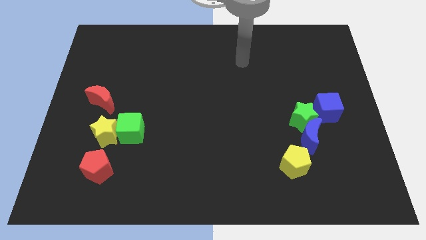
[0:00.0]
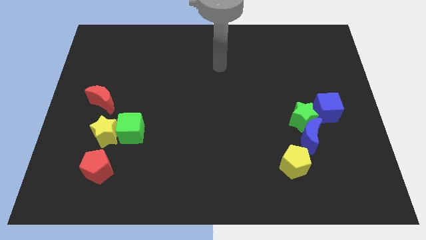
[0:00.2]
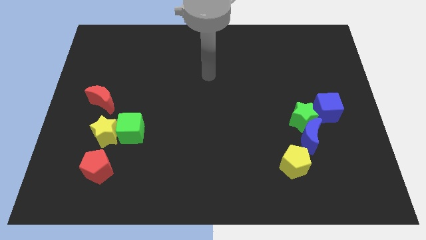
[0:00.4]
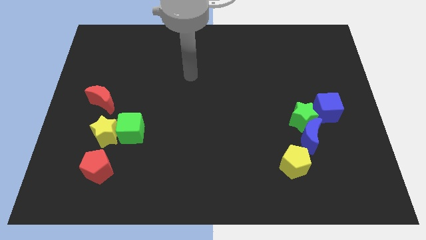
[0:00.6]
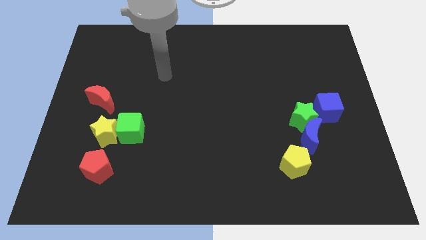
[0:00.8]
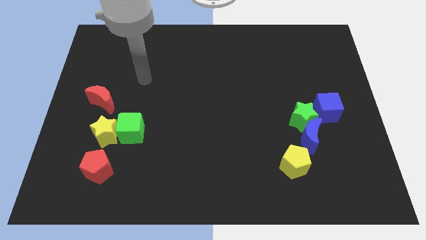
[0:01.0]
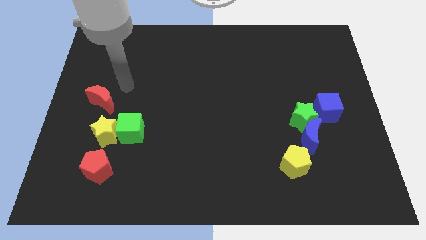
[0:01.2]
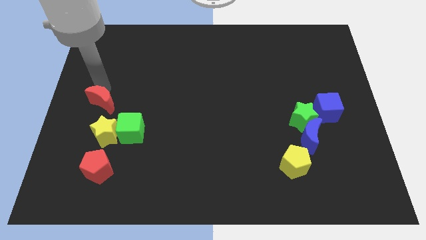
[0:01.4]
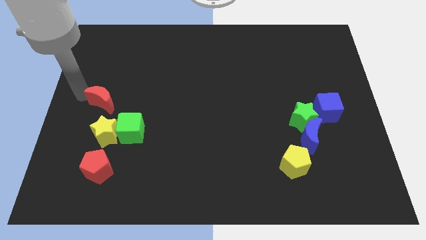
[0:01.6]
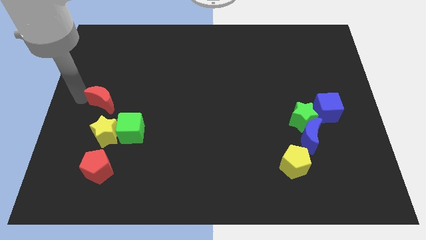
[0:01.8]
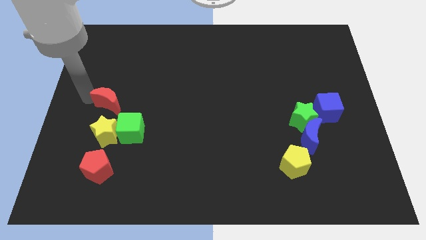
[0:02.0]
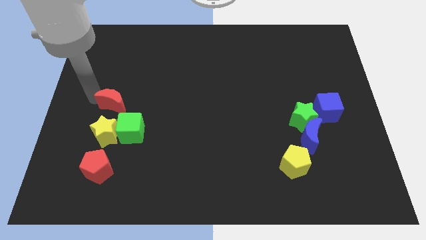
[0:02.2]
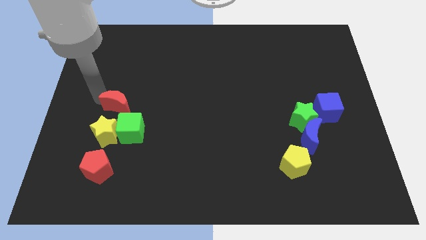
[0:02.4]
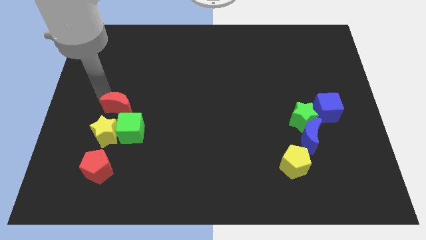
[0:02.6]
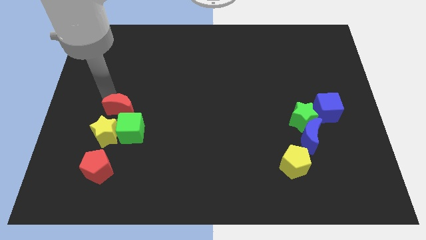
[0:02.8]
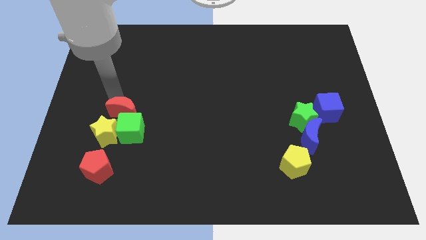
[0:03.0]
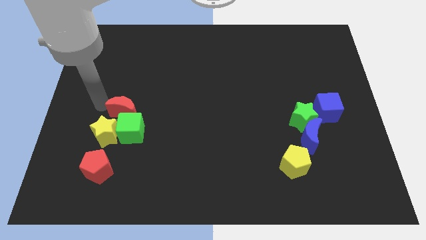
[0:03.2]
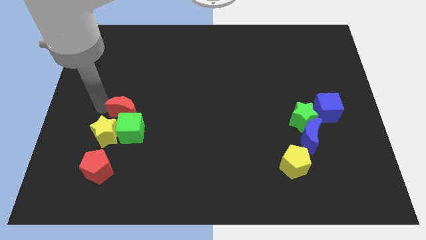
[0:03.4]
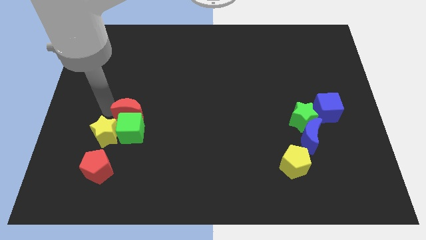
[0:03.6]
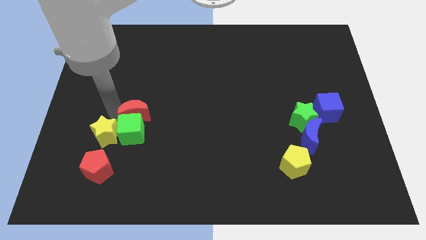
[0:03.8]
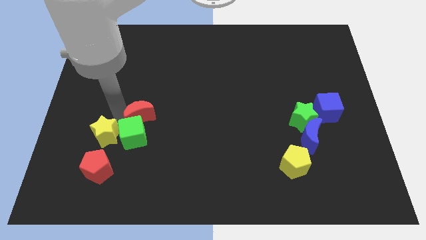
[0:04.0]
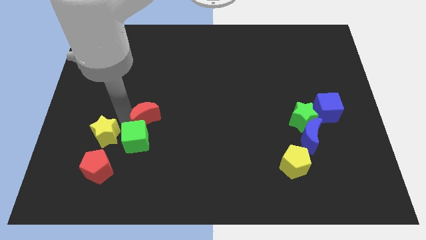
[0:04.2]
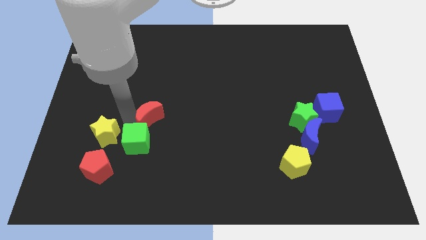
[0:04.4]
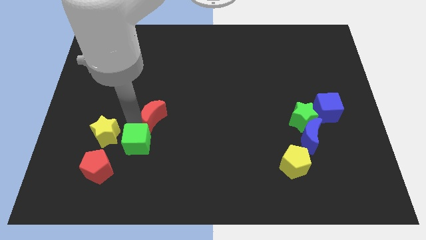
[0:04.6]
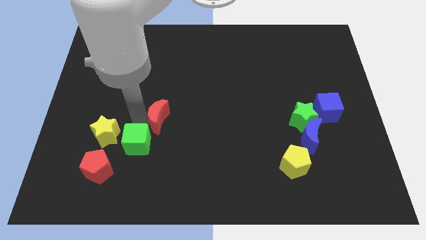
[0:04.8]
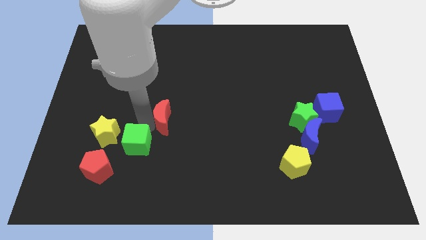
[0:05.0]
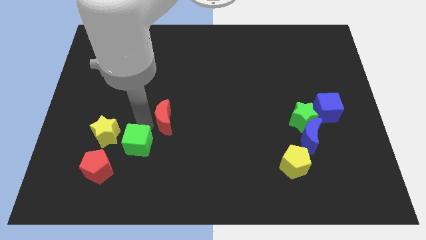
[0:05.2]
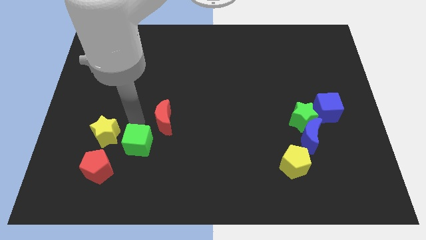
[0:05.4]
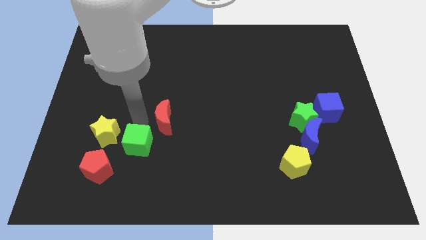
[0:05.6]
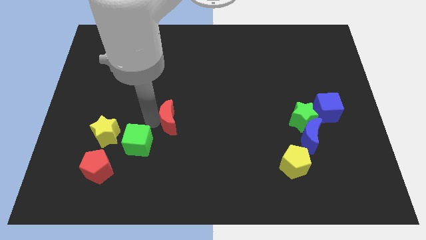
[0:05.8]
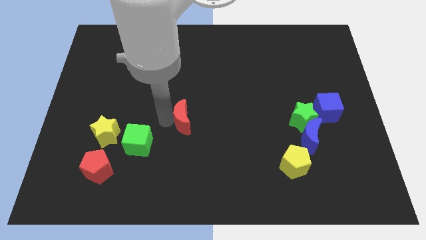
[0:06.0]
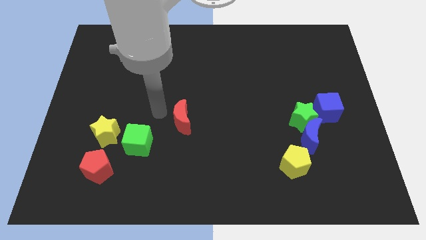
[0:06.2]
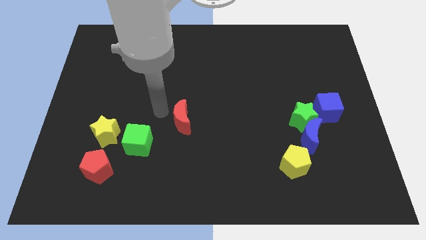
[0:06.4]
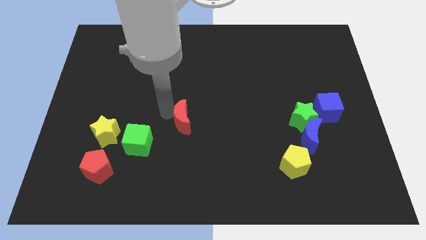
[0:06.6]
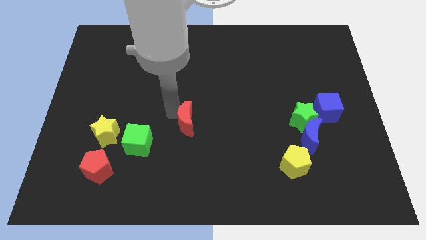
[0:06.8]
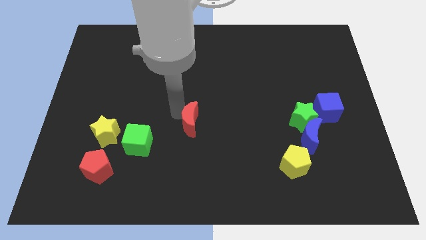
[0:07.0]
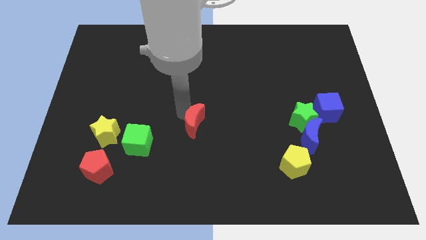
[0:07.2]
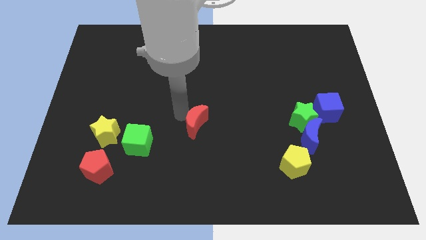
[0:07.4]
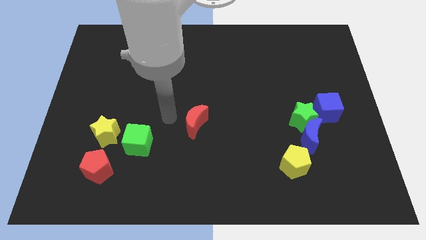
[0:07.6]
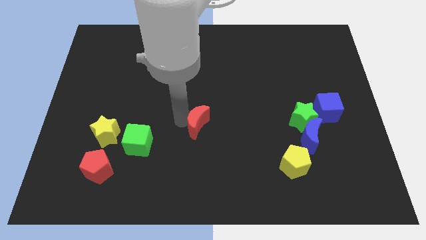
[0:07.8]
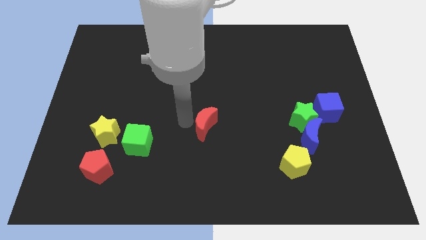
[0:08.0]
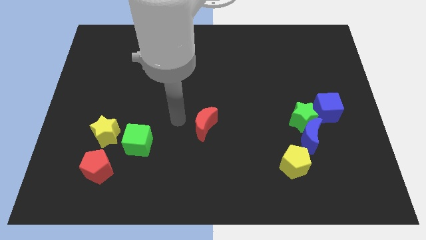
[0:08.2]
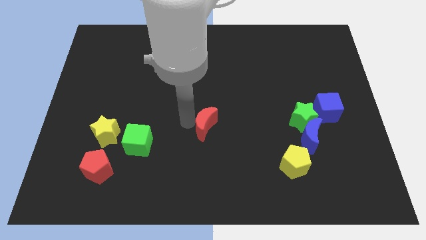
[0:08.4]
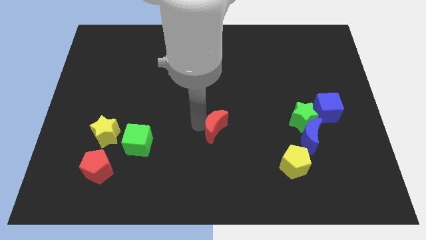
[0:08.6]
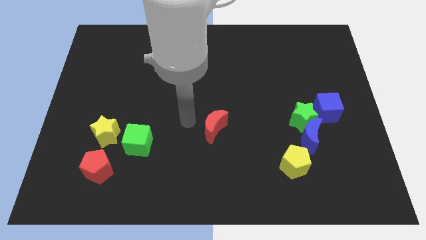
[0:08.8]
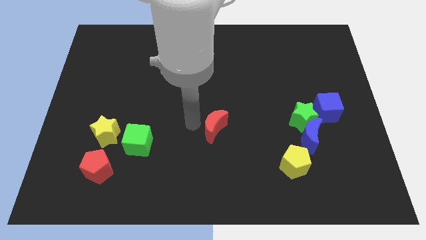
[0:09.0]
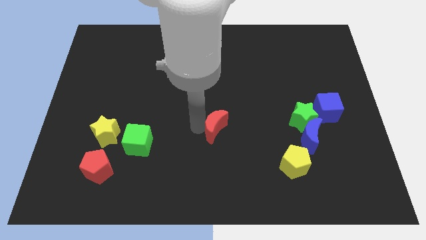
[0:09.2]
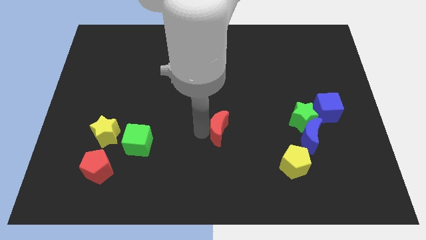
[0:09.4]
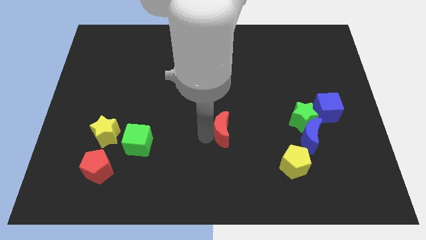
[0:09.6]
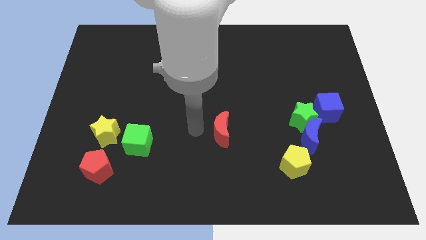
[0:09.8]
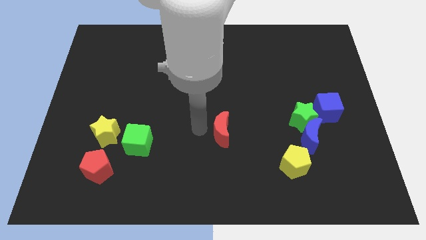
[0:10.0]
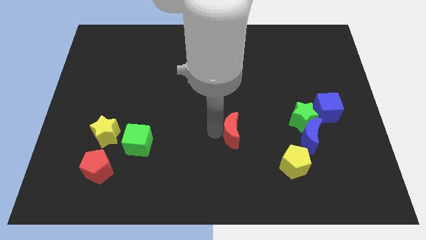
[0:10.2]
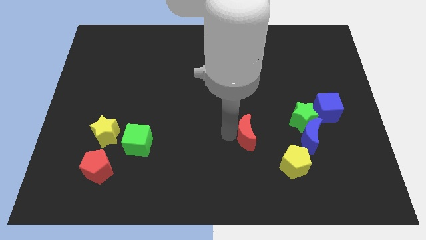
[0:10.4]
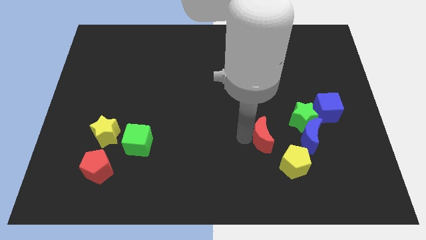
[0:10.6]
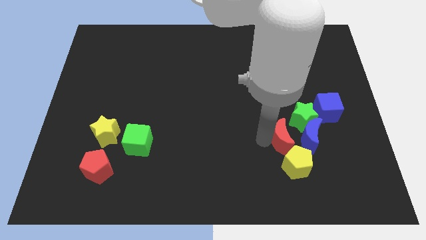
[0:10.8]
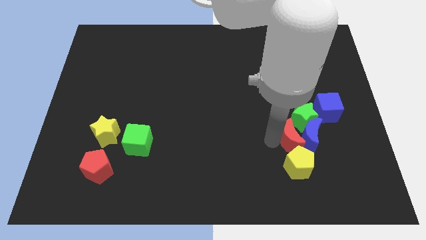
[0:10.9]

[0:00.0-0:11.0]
push the red moon next to the blue moon

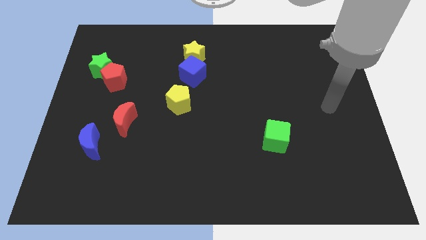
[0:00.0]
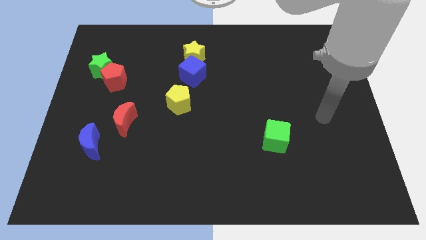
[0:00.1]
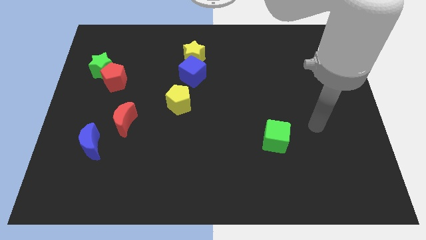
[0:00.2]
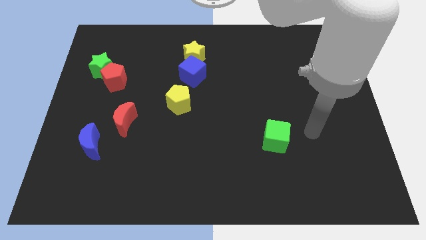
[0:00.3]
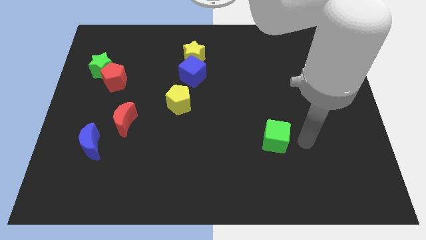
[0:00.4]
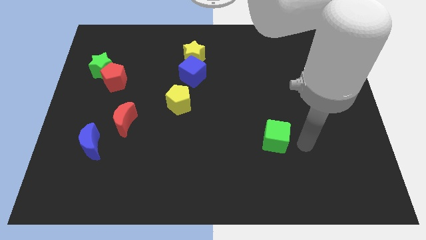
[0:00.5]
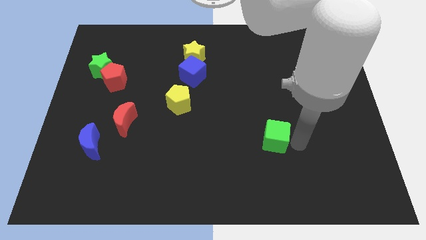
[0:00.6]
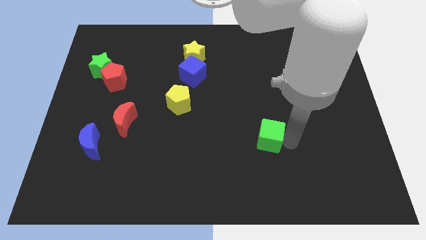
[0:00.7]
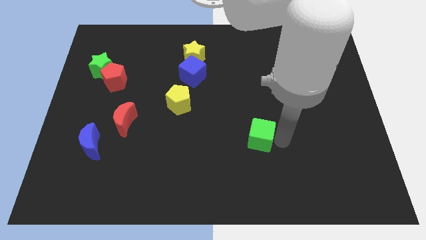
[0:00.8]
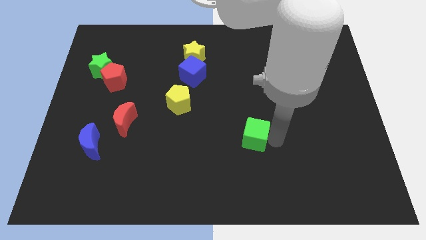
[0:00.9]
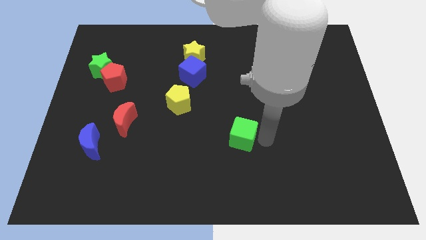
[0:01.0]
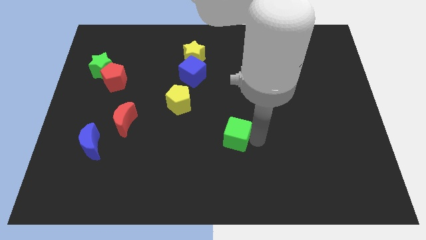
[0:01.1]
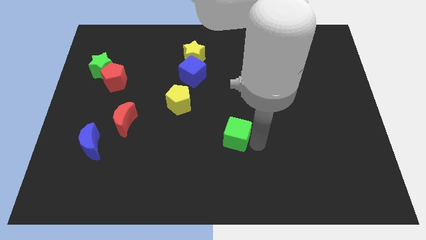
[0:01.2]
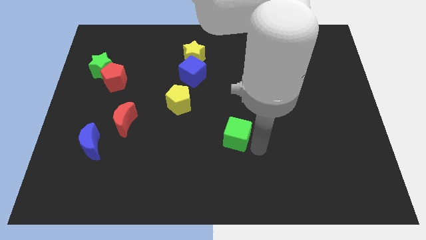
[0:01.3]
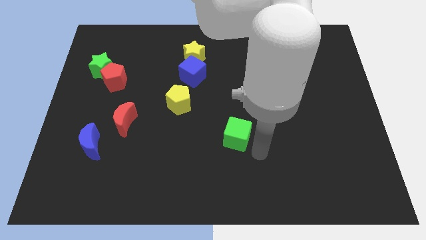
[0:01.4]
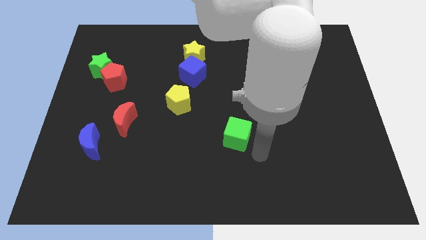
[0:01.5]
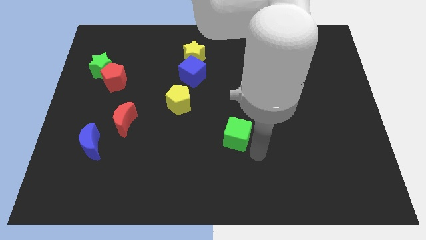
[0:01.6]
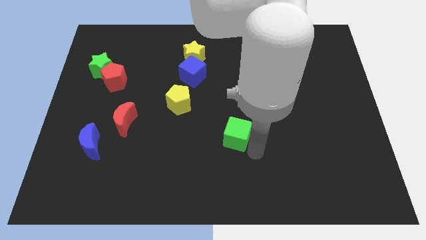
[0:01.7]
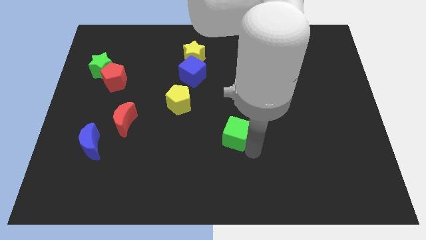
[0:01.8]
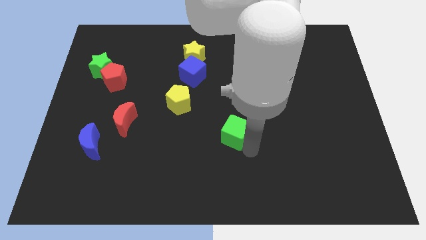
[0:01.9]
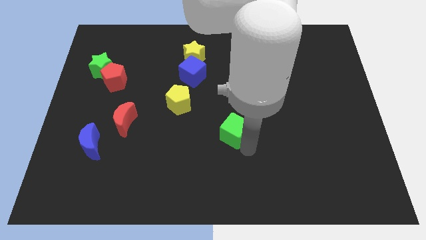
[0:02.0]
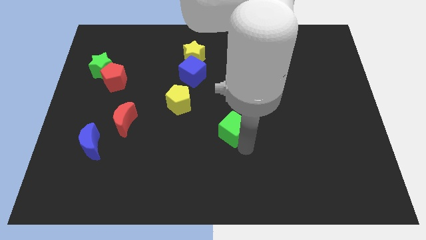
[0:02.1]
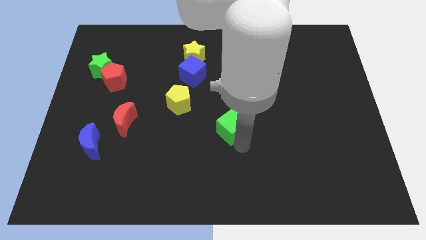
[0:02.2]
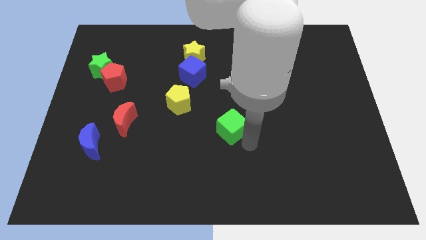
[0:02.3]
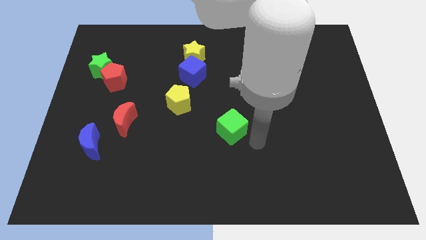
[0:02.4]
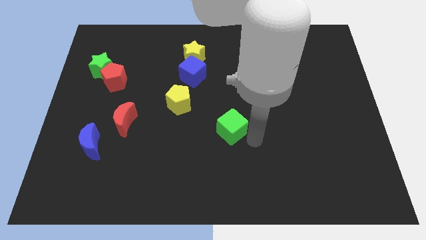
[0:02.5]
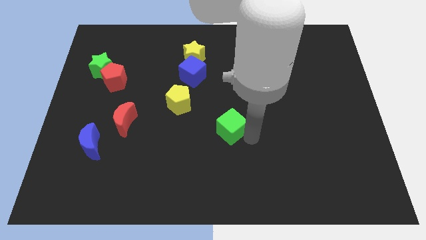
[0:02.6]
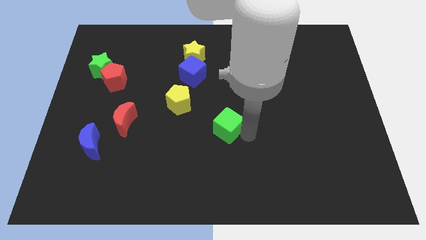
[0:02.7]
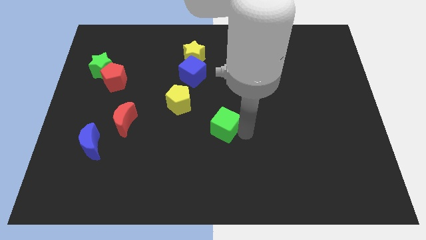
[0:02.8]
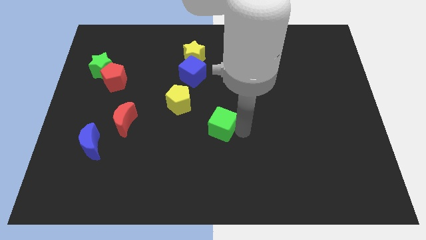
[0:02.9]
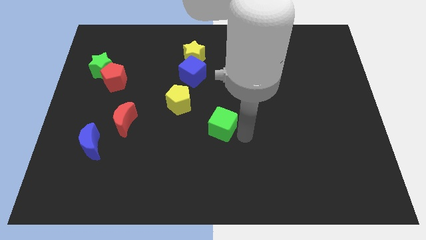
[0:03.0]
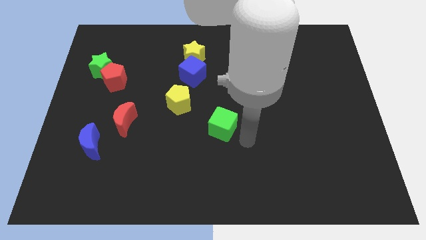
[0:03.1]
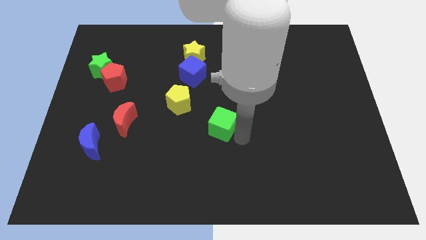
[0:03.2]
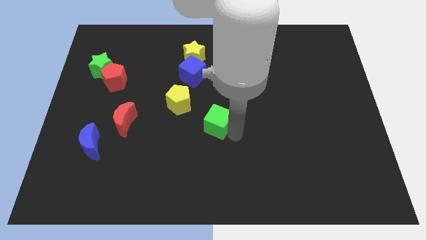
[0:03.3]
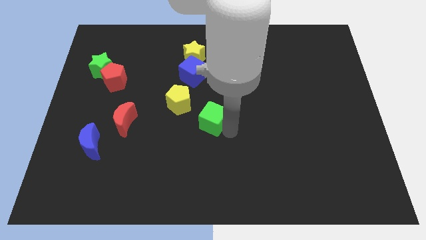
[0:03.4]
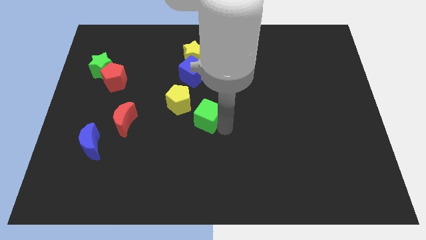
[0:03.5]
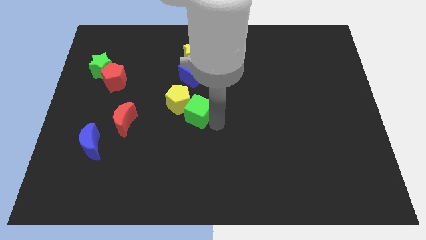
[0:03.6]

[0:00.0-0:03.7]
push the green cube to the yellow pentagon
